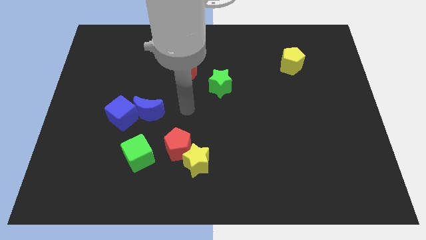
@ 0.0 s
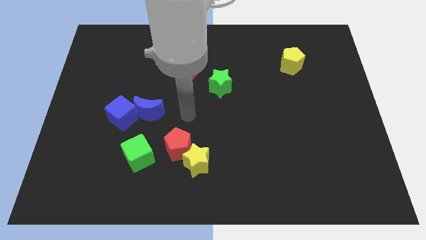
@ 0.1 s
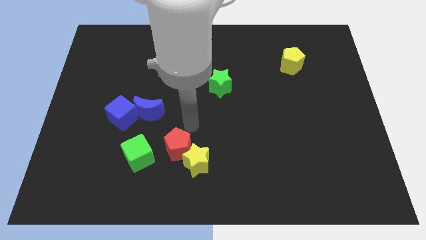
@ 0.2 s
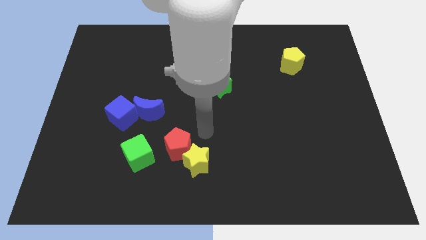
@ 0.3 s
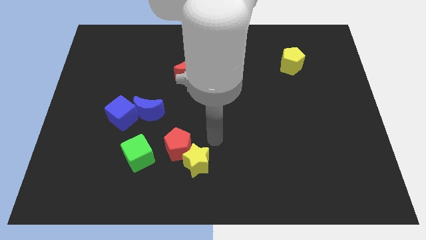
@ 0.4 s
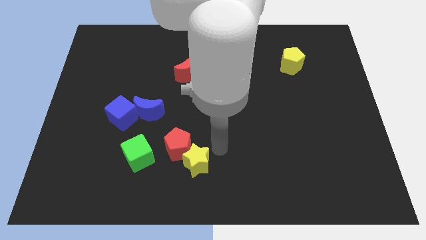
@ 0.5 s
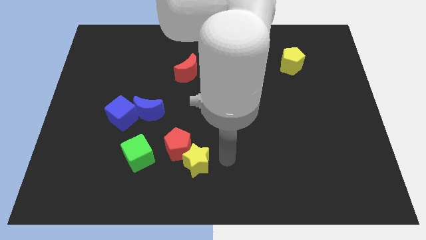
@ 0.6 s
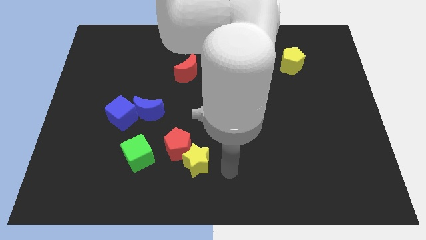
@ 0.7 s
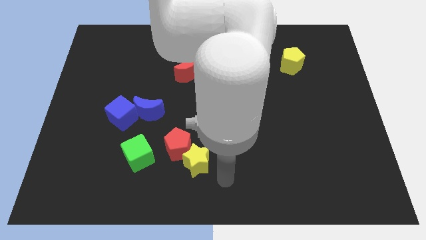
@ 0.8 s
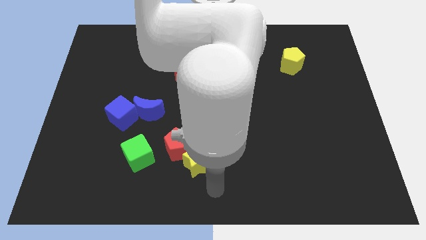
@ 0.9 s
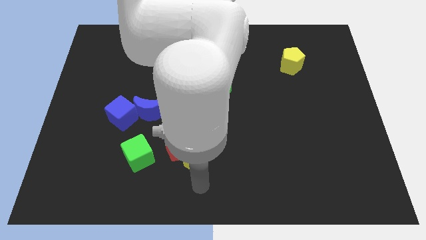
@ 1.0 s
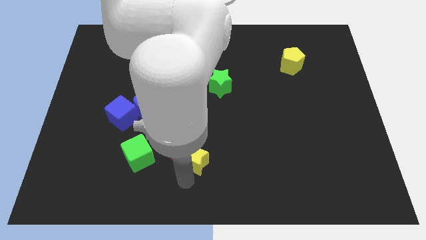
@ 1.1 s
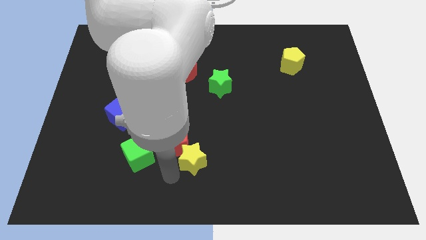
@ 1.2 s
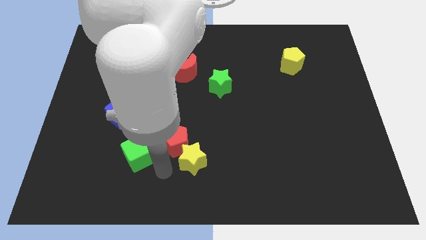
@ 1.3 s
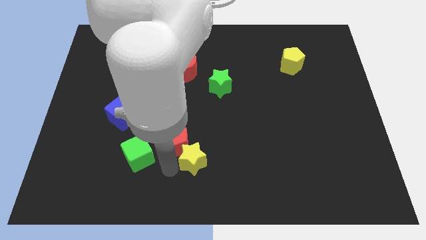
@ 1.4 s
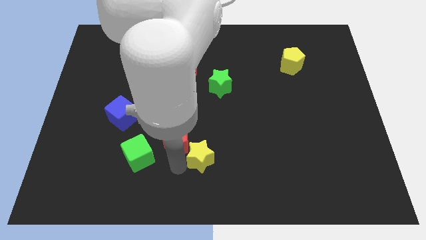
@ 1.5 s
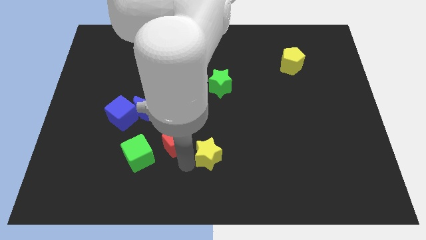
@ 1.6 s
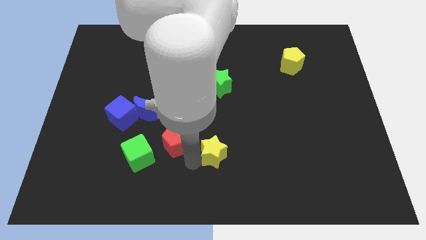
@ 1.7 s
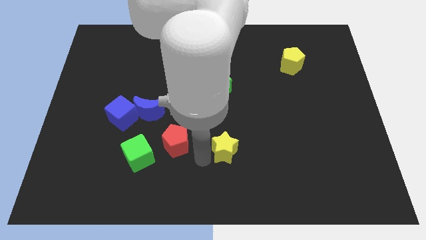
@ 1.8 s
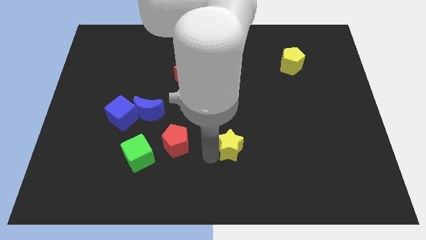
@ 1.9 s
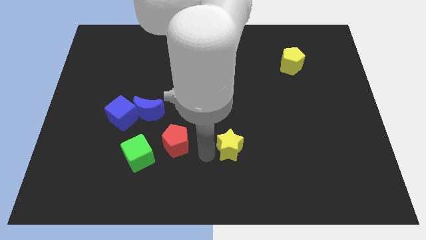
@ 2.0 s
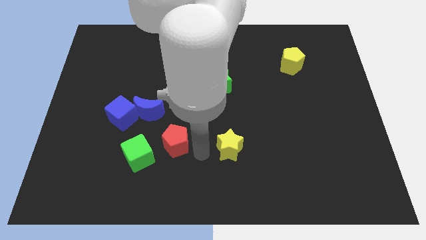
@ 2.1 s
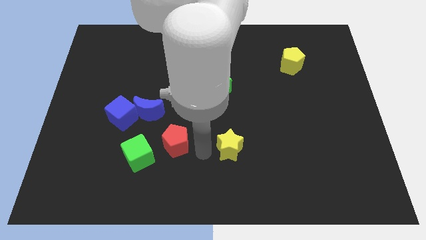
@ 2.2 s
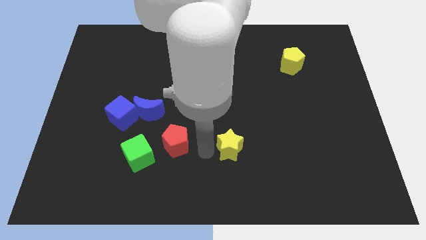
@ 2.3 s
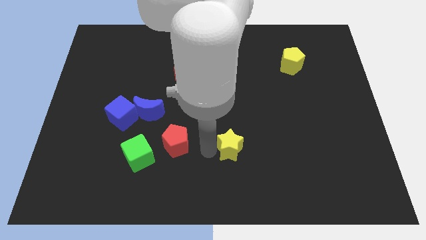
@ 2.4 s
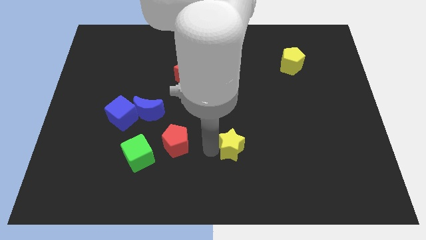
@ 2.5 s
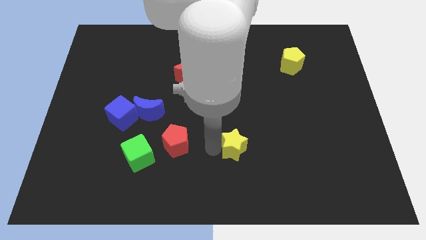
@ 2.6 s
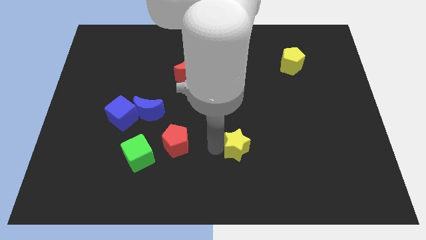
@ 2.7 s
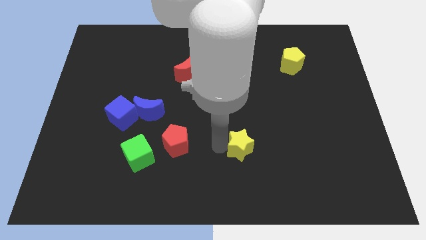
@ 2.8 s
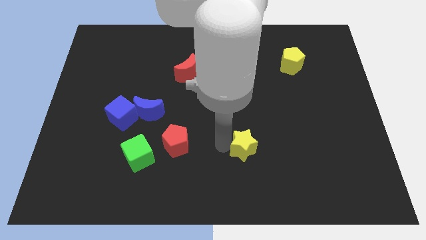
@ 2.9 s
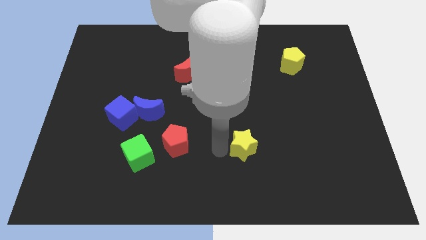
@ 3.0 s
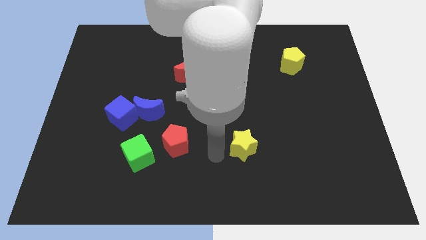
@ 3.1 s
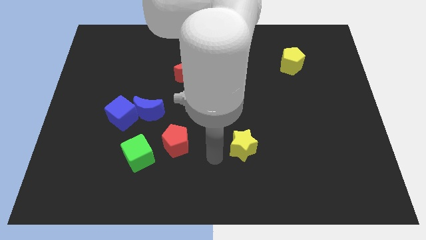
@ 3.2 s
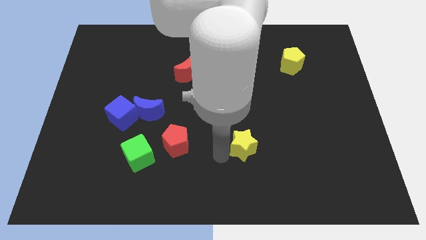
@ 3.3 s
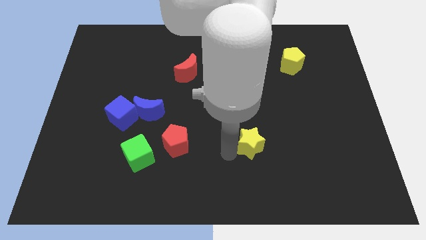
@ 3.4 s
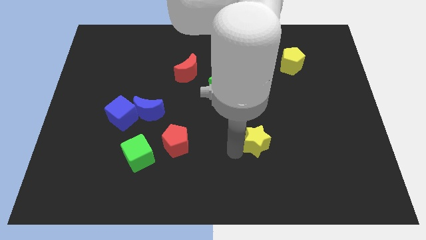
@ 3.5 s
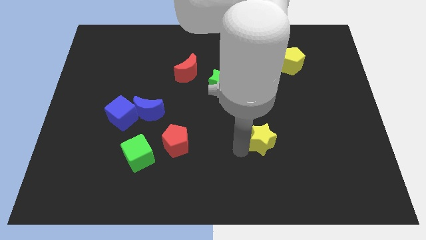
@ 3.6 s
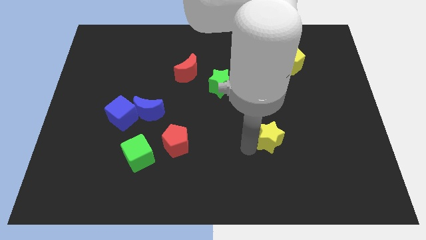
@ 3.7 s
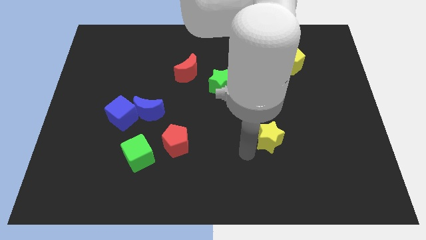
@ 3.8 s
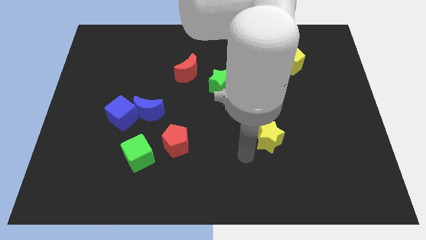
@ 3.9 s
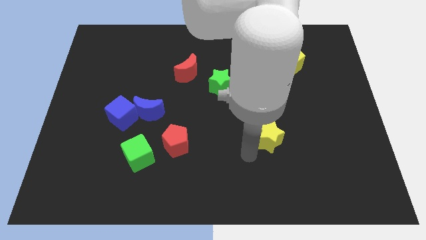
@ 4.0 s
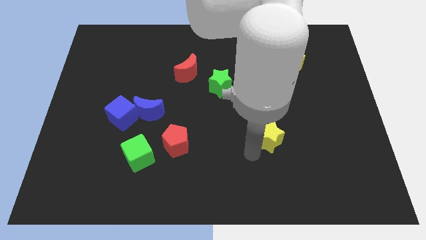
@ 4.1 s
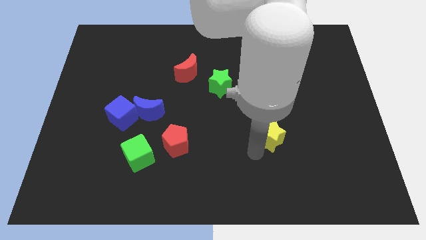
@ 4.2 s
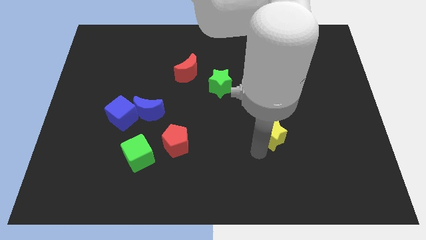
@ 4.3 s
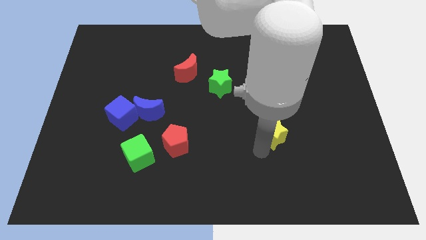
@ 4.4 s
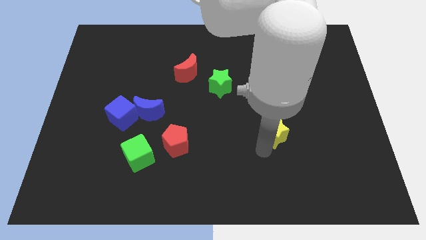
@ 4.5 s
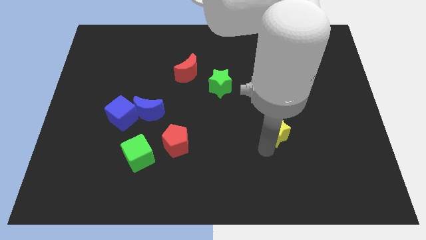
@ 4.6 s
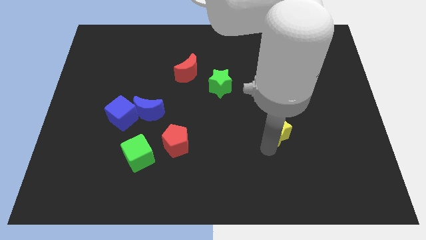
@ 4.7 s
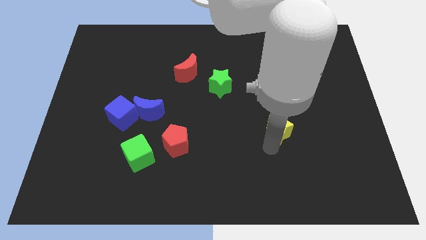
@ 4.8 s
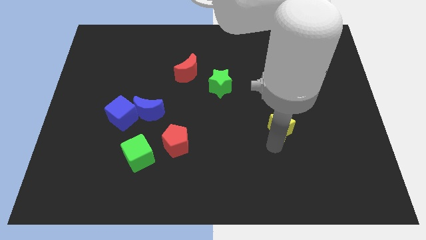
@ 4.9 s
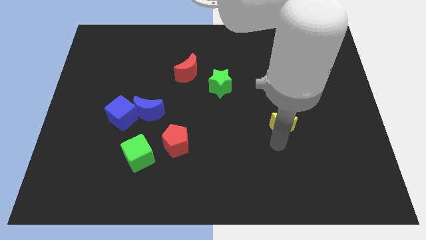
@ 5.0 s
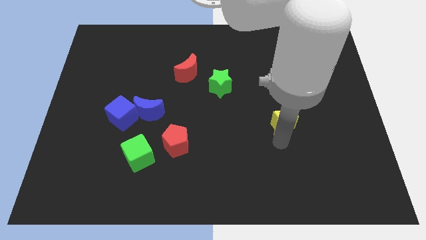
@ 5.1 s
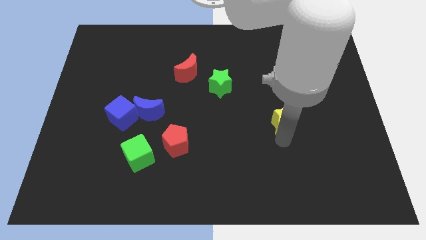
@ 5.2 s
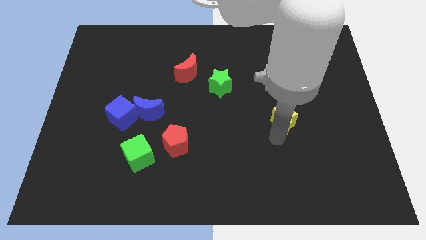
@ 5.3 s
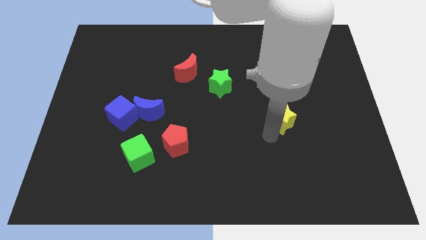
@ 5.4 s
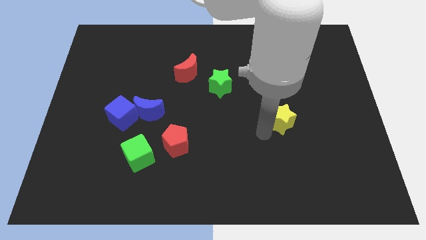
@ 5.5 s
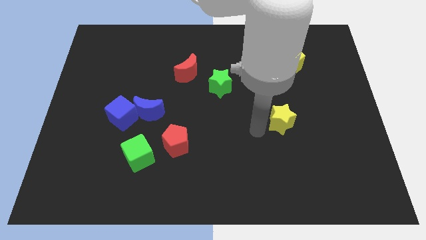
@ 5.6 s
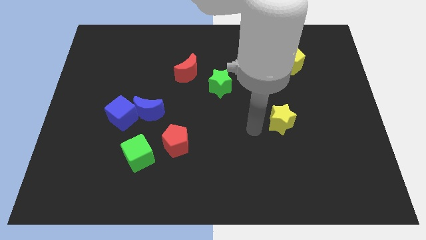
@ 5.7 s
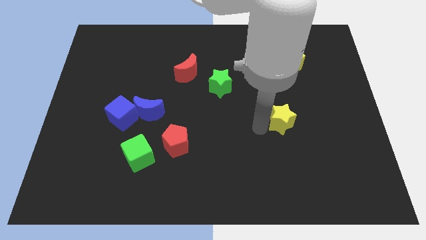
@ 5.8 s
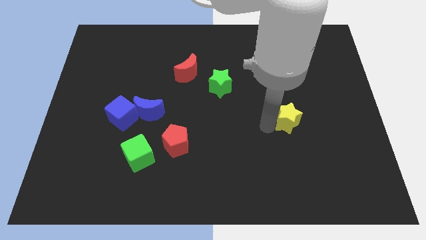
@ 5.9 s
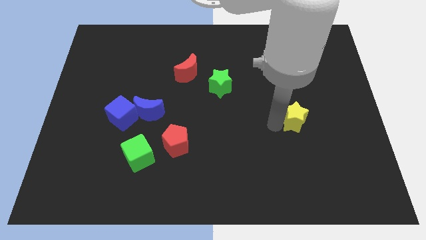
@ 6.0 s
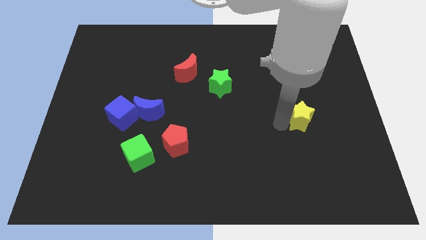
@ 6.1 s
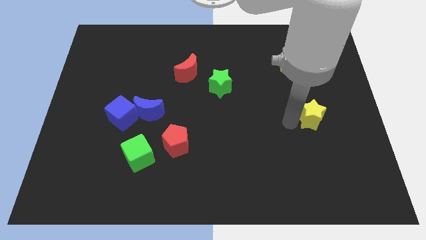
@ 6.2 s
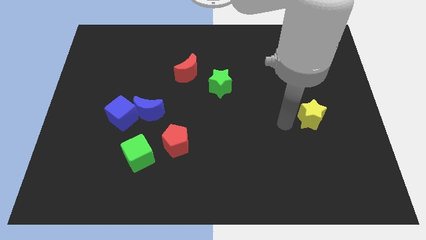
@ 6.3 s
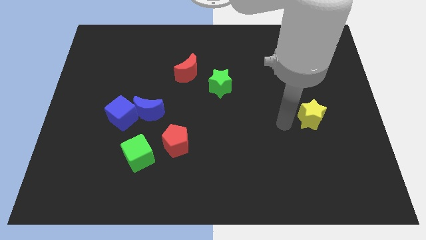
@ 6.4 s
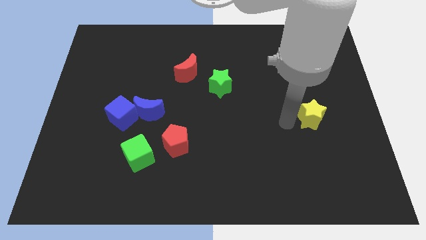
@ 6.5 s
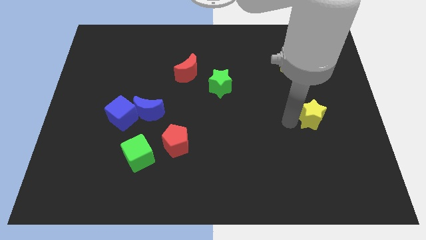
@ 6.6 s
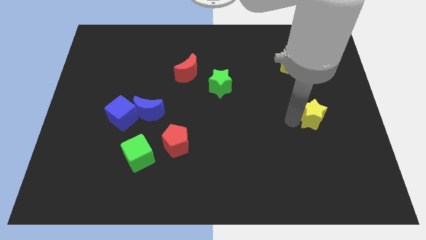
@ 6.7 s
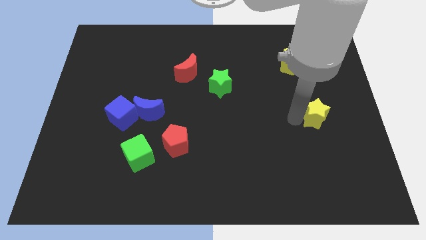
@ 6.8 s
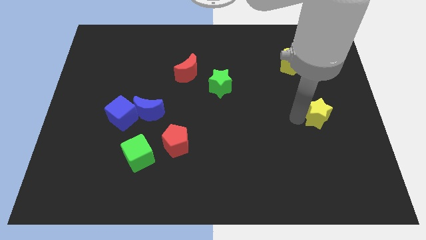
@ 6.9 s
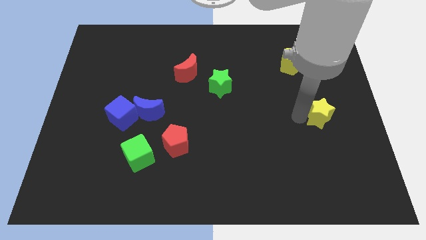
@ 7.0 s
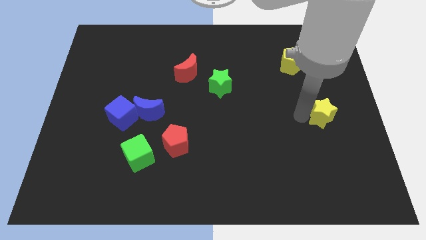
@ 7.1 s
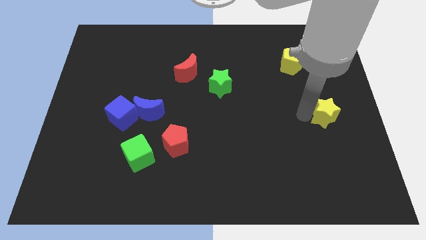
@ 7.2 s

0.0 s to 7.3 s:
slide the yellow star to the right side of the board
